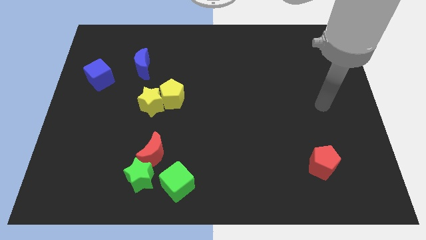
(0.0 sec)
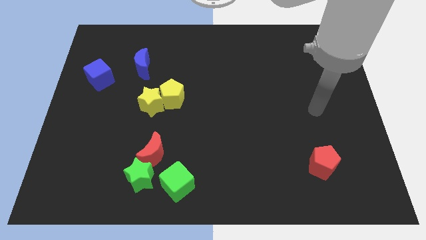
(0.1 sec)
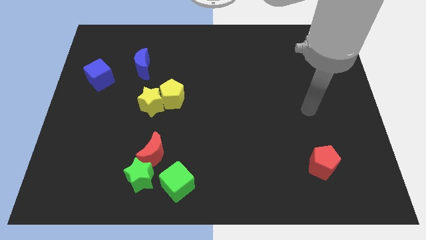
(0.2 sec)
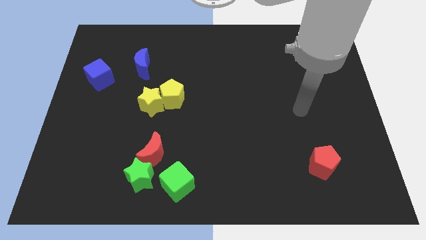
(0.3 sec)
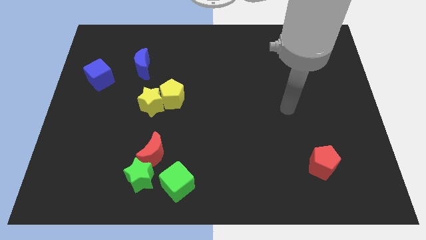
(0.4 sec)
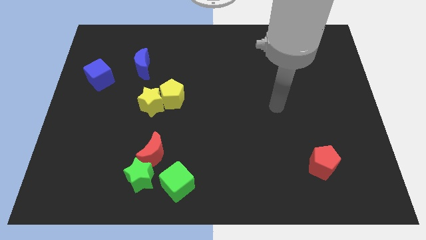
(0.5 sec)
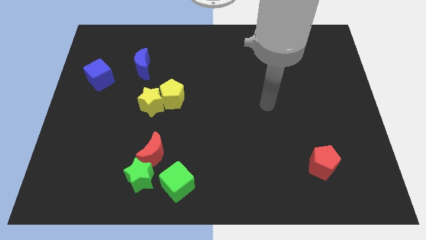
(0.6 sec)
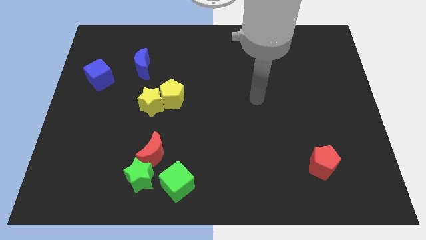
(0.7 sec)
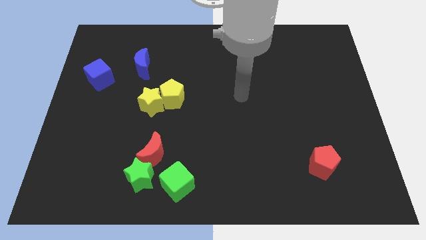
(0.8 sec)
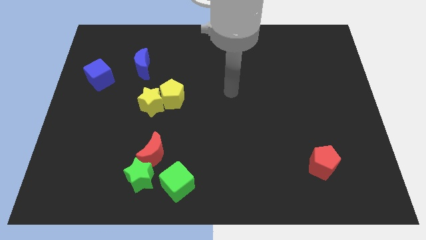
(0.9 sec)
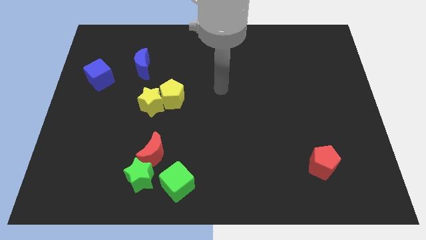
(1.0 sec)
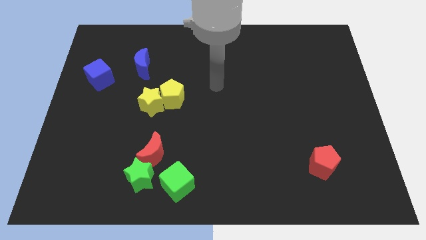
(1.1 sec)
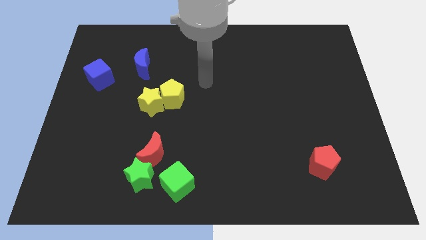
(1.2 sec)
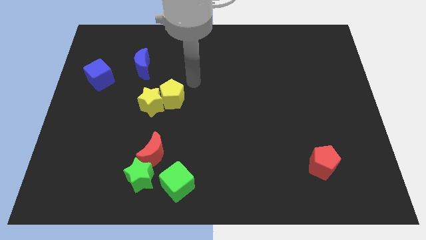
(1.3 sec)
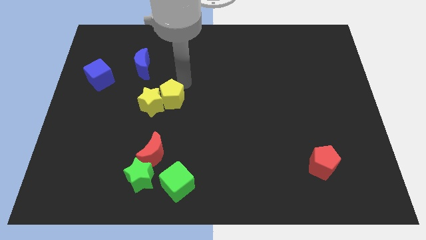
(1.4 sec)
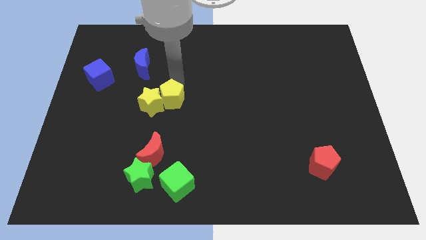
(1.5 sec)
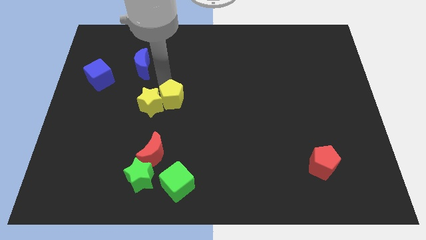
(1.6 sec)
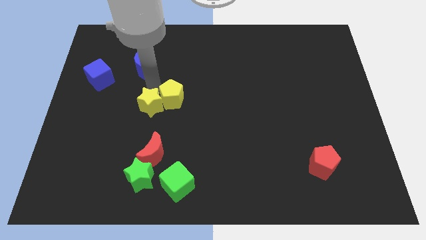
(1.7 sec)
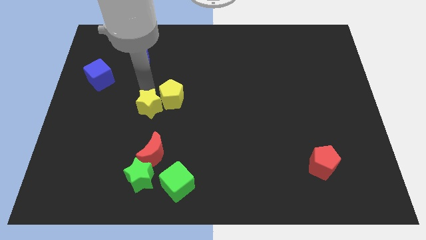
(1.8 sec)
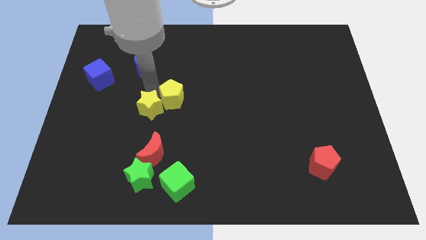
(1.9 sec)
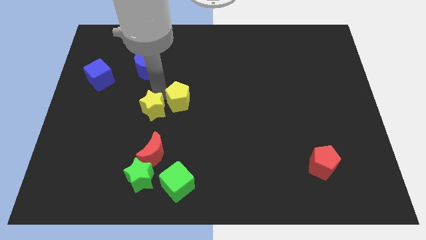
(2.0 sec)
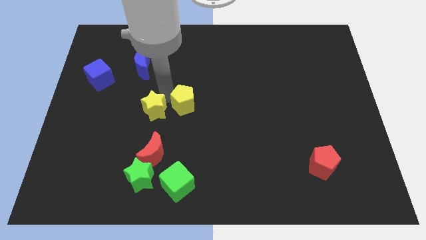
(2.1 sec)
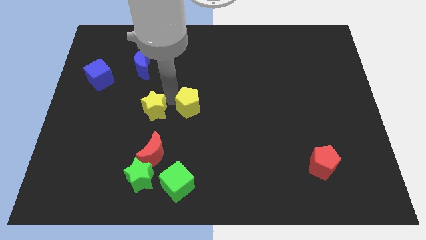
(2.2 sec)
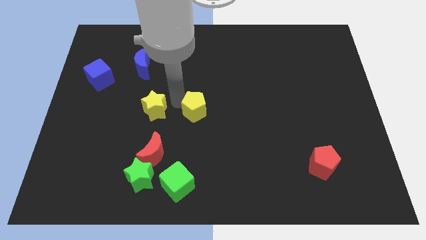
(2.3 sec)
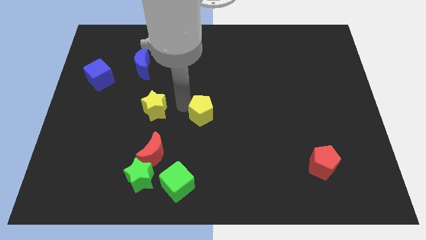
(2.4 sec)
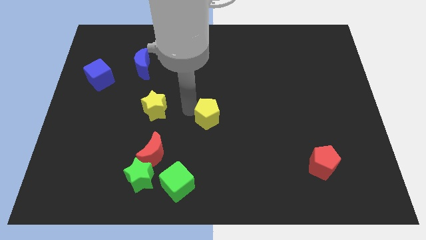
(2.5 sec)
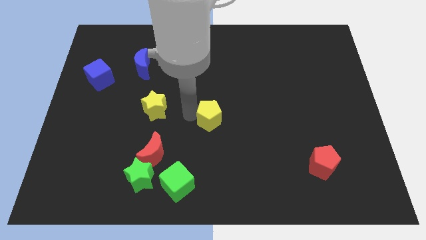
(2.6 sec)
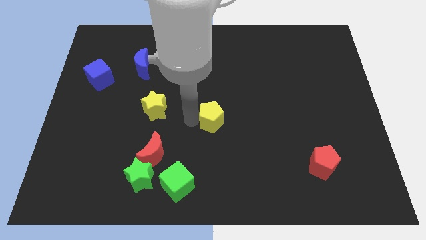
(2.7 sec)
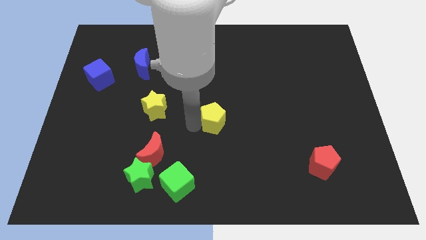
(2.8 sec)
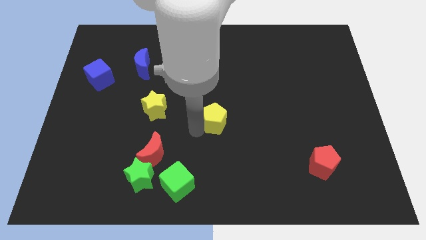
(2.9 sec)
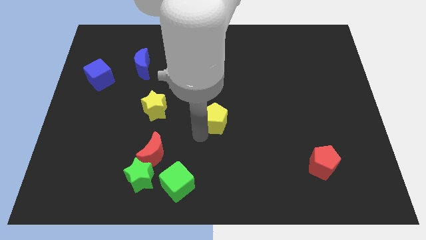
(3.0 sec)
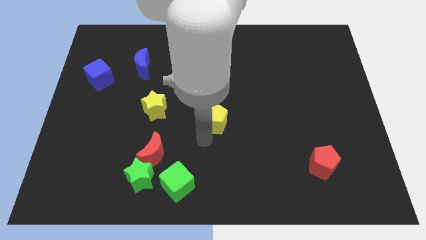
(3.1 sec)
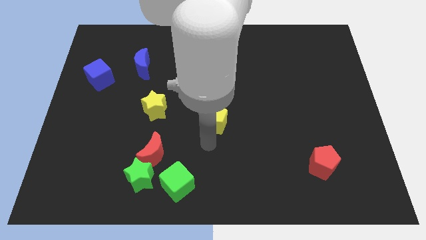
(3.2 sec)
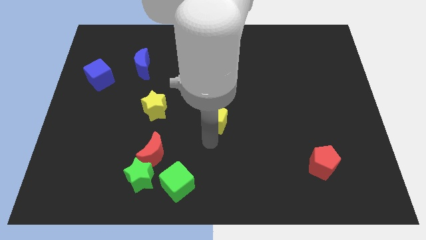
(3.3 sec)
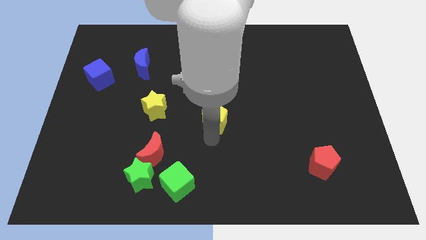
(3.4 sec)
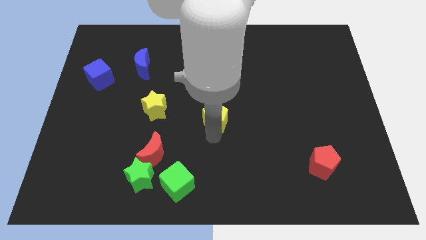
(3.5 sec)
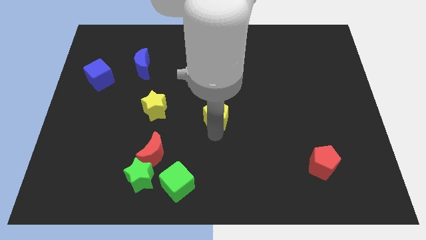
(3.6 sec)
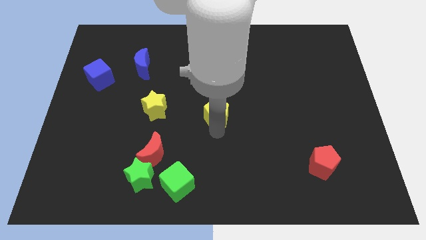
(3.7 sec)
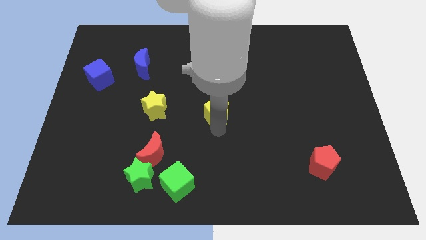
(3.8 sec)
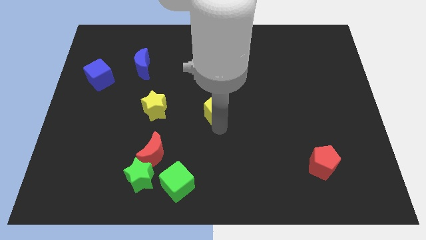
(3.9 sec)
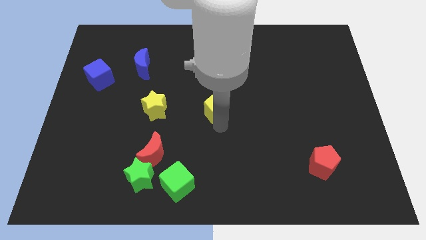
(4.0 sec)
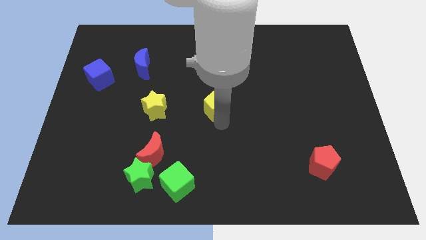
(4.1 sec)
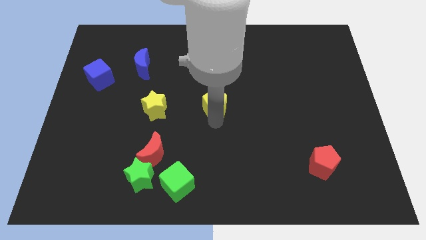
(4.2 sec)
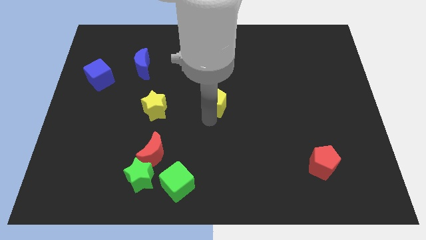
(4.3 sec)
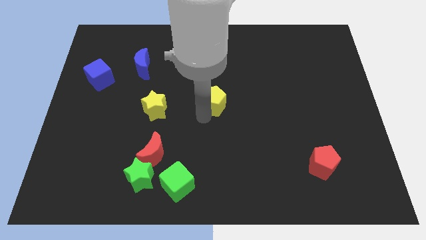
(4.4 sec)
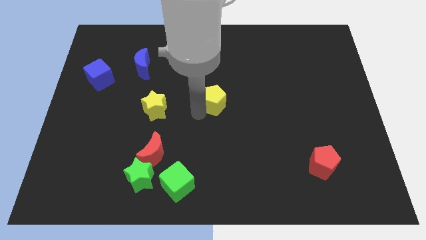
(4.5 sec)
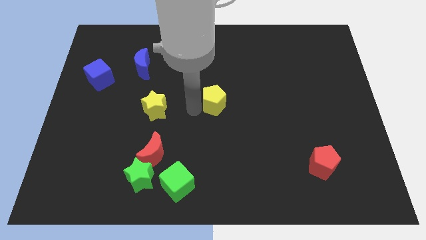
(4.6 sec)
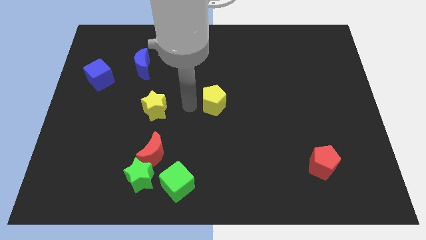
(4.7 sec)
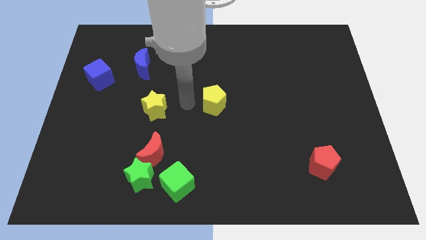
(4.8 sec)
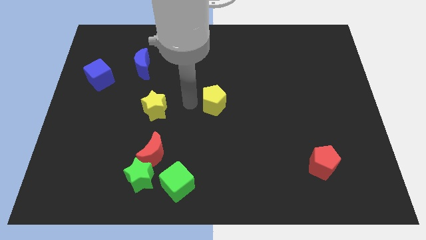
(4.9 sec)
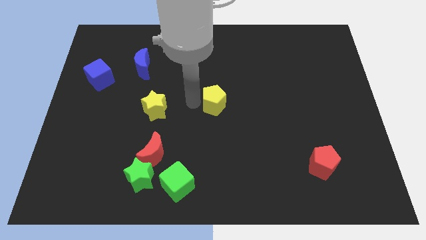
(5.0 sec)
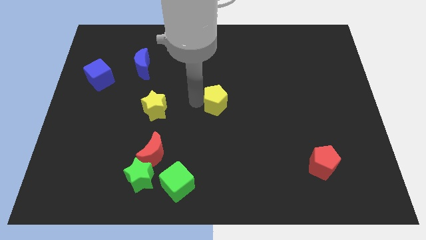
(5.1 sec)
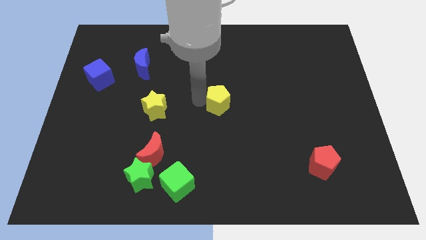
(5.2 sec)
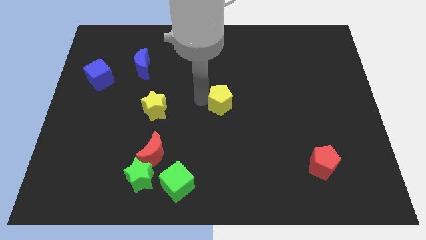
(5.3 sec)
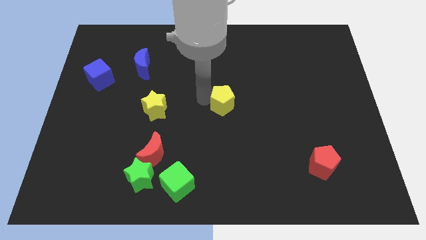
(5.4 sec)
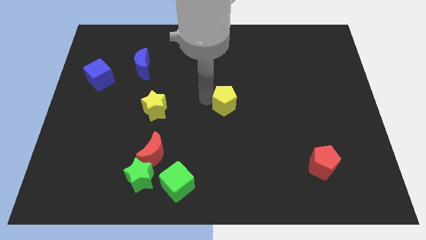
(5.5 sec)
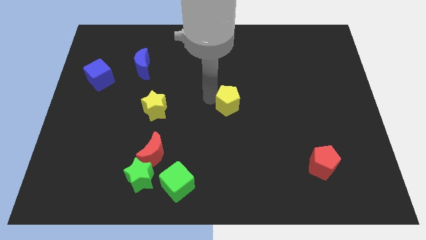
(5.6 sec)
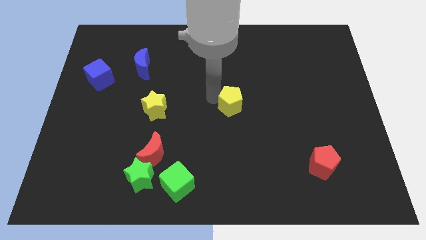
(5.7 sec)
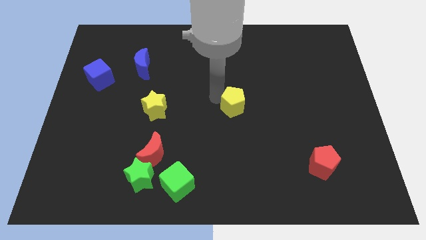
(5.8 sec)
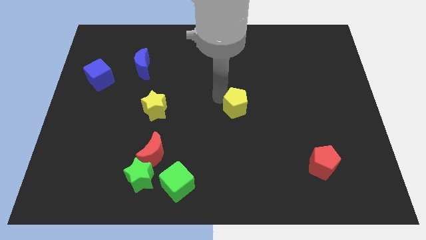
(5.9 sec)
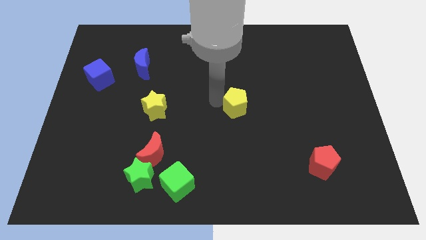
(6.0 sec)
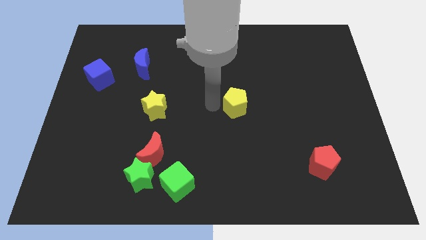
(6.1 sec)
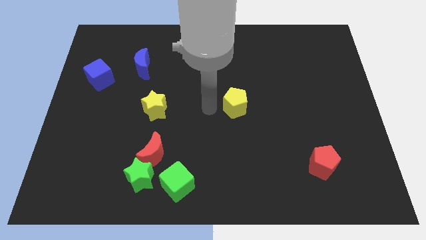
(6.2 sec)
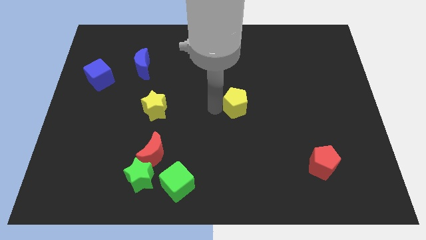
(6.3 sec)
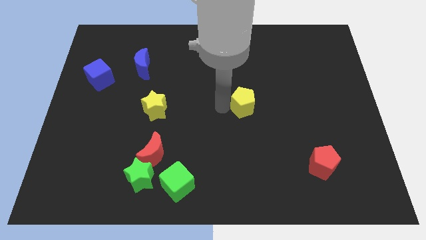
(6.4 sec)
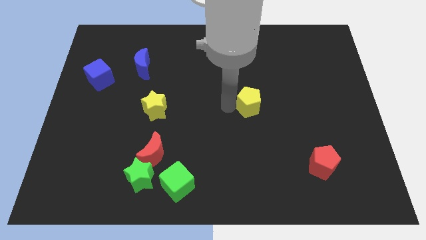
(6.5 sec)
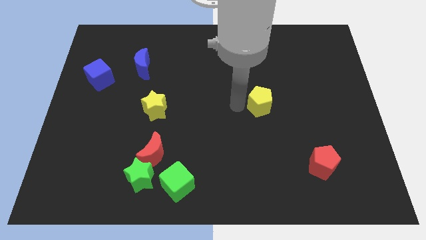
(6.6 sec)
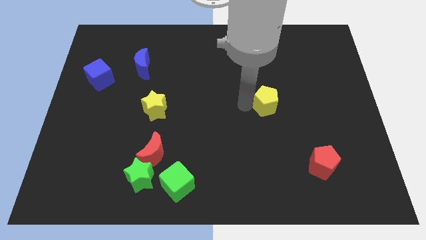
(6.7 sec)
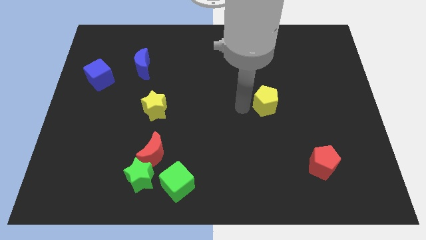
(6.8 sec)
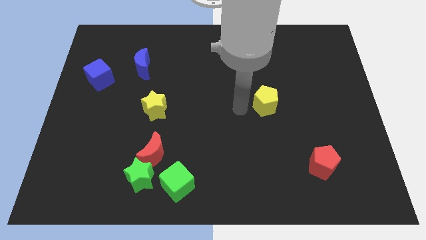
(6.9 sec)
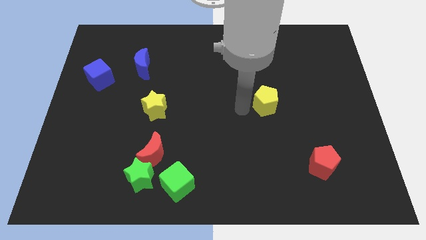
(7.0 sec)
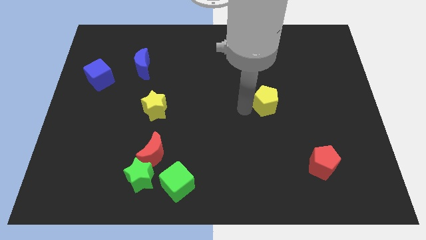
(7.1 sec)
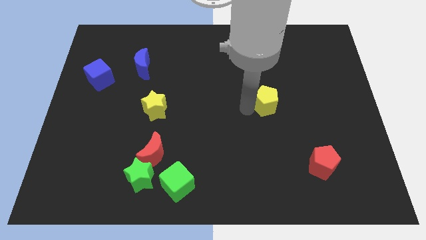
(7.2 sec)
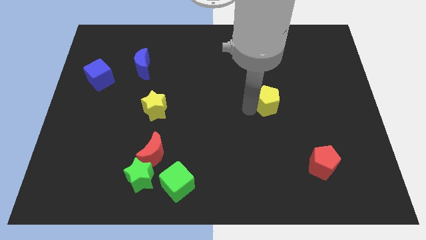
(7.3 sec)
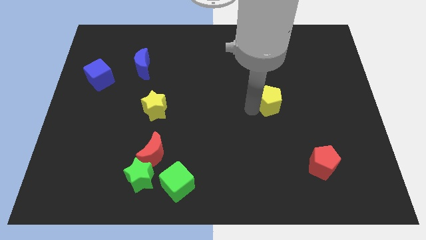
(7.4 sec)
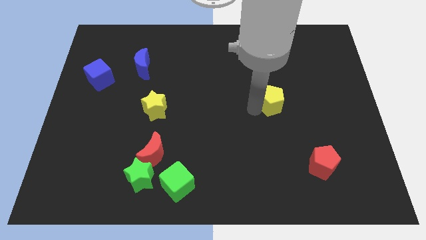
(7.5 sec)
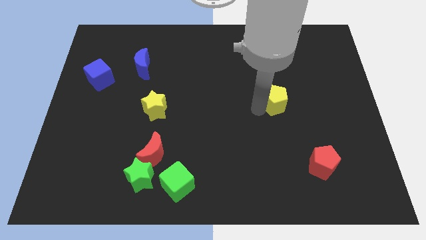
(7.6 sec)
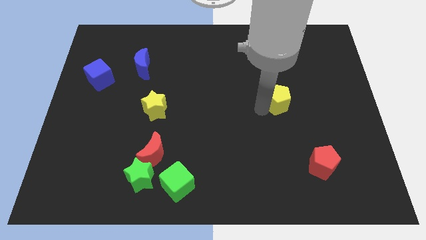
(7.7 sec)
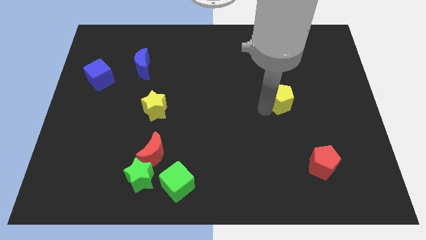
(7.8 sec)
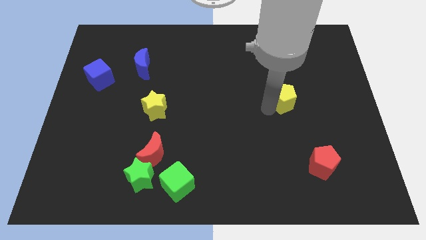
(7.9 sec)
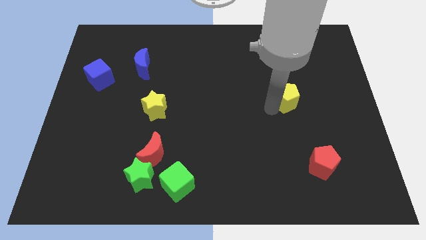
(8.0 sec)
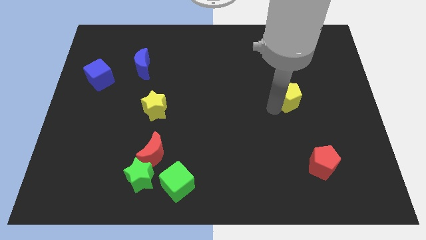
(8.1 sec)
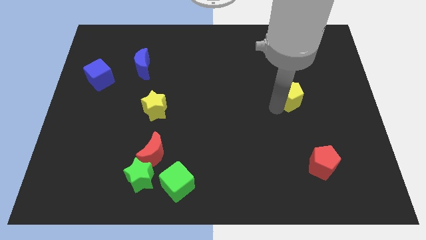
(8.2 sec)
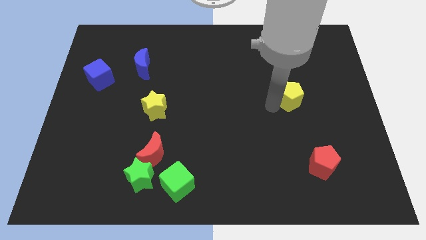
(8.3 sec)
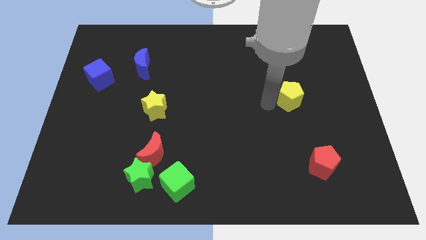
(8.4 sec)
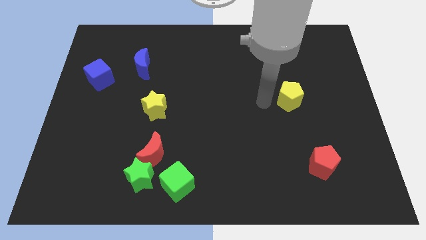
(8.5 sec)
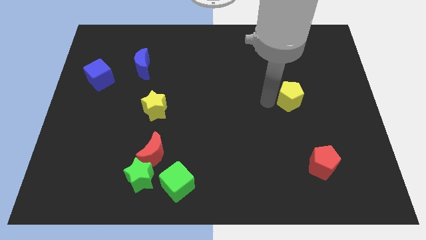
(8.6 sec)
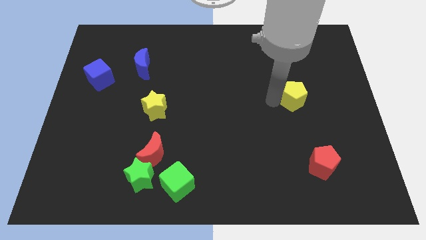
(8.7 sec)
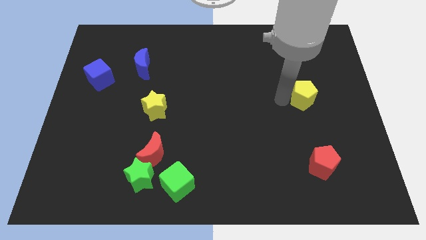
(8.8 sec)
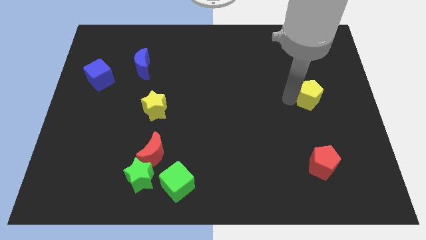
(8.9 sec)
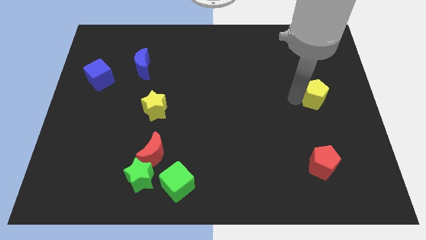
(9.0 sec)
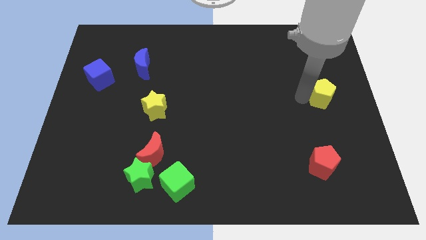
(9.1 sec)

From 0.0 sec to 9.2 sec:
move the yellow pentagon to the right side
